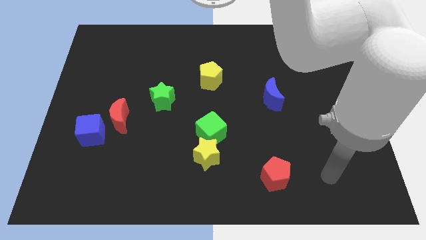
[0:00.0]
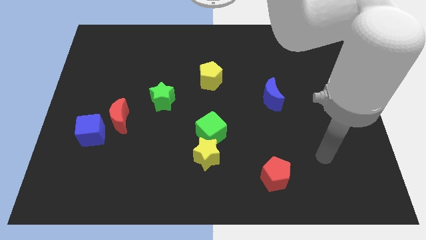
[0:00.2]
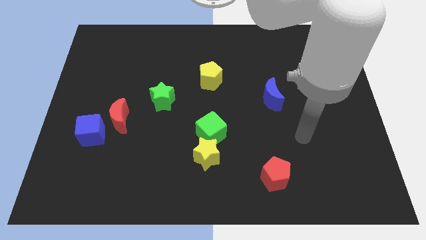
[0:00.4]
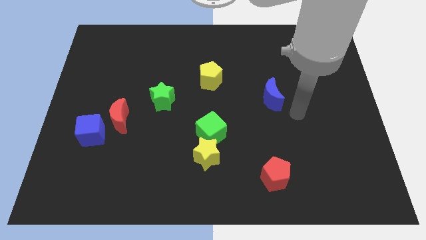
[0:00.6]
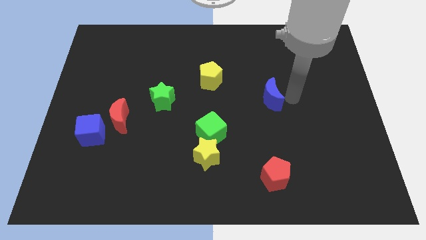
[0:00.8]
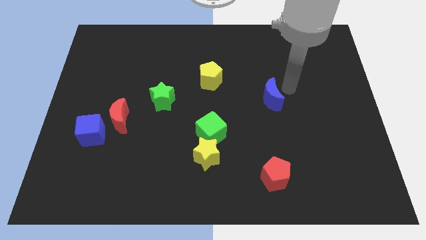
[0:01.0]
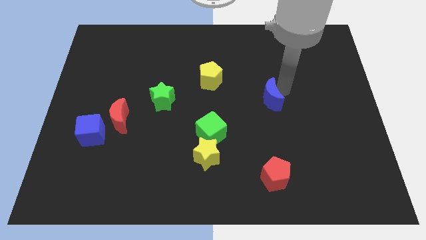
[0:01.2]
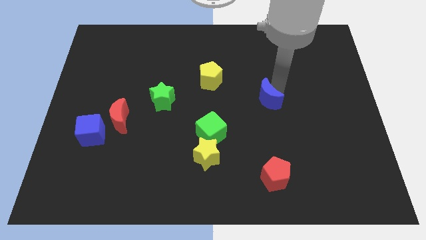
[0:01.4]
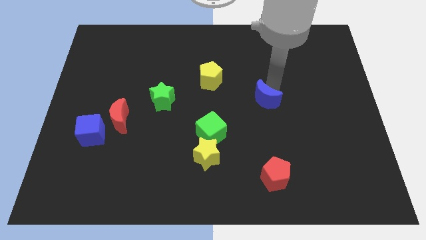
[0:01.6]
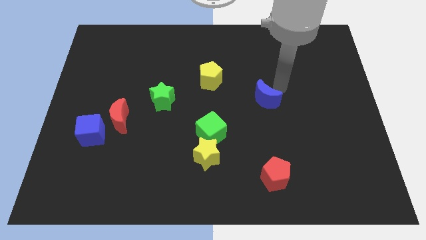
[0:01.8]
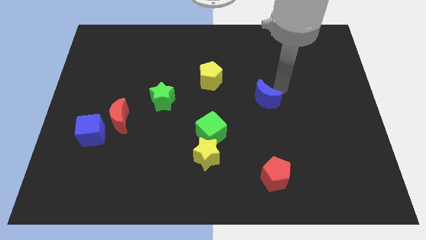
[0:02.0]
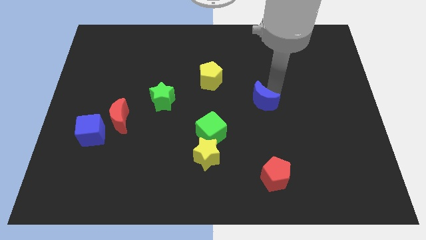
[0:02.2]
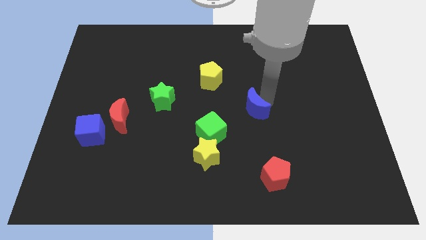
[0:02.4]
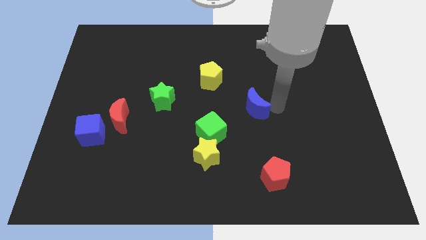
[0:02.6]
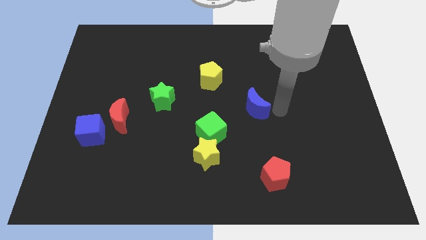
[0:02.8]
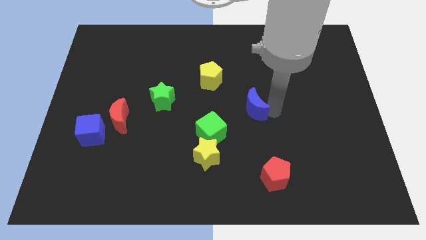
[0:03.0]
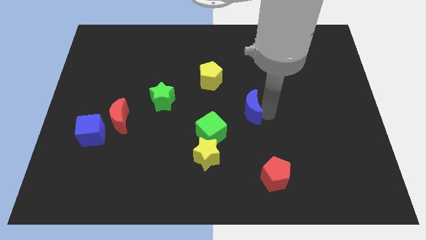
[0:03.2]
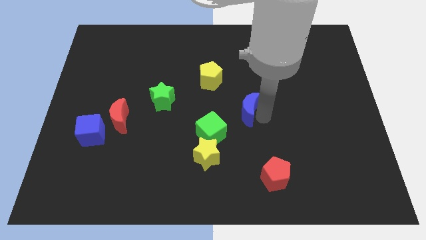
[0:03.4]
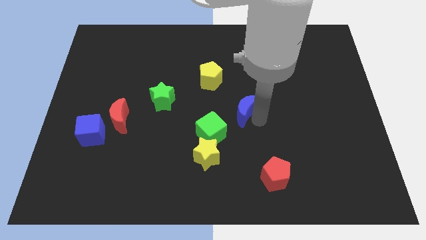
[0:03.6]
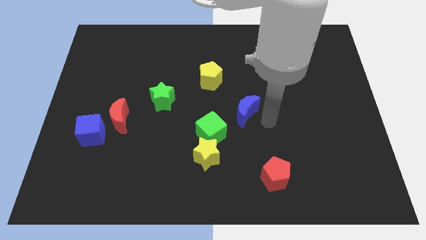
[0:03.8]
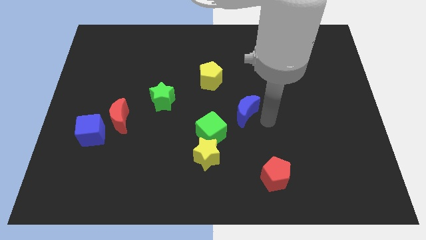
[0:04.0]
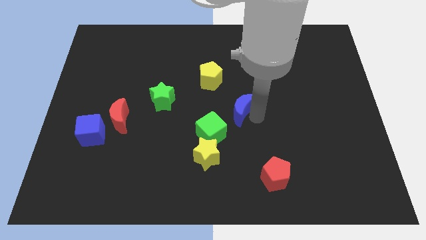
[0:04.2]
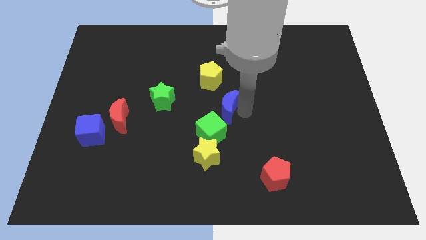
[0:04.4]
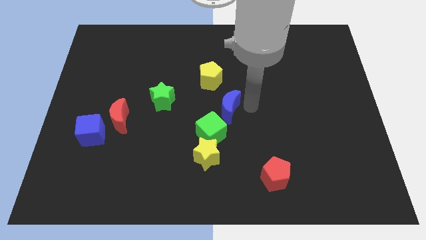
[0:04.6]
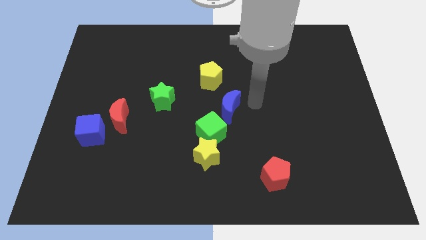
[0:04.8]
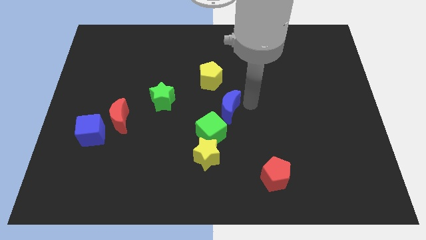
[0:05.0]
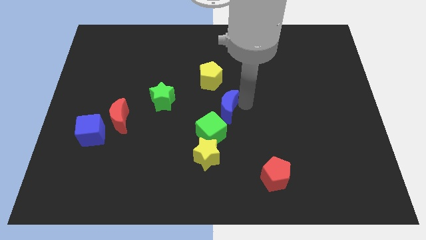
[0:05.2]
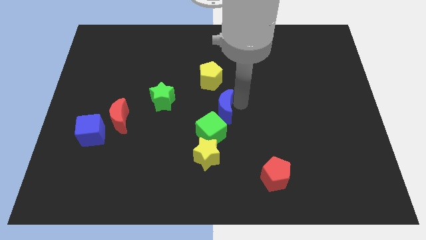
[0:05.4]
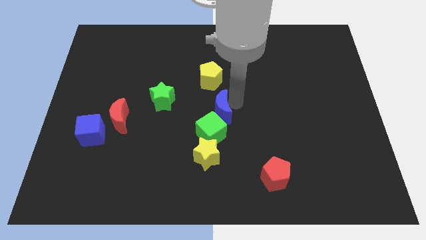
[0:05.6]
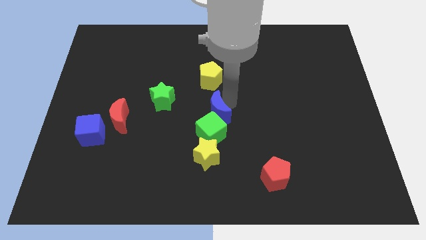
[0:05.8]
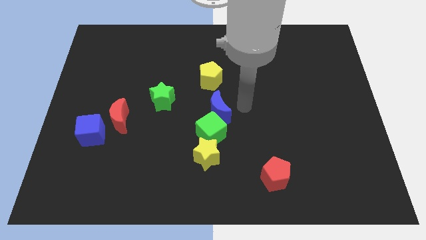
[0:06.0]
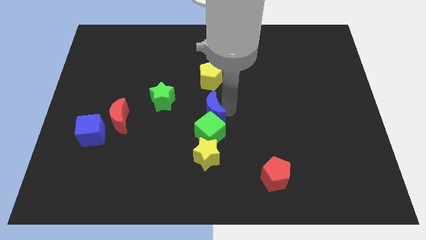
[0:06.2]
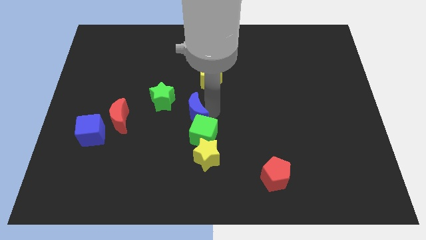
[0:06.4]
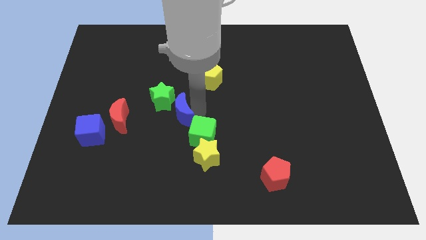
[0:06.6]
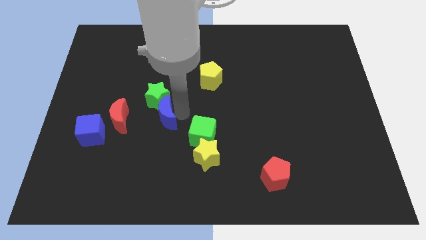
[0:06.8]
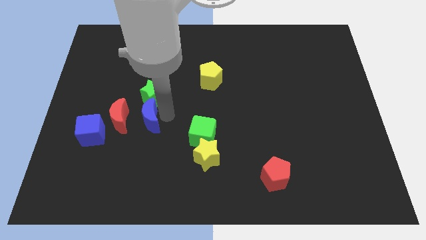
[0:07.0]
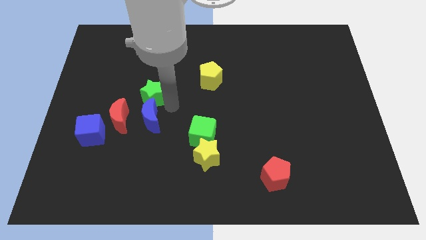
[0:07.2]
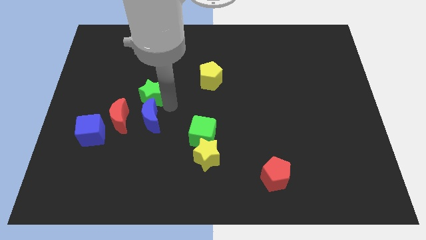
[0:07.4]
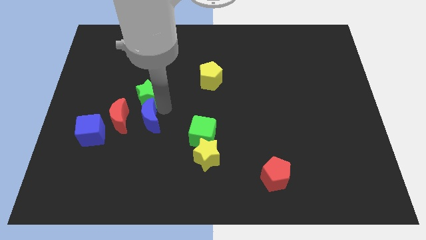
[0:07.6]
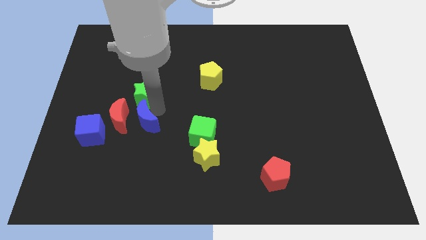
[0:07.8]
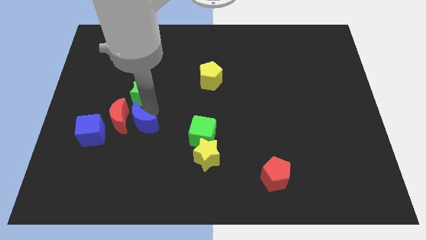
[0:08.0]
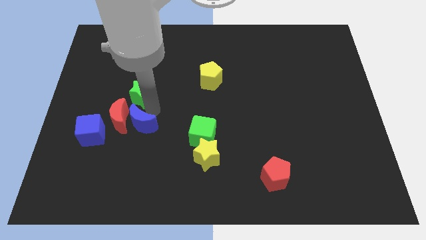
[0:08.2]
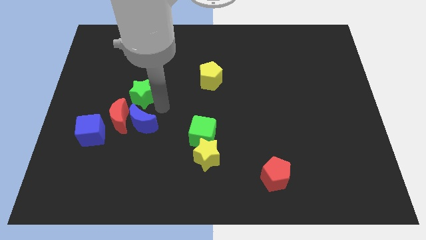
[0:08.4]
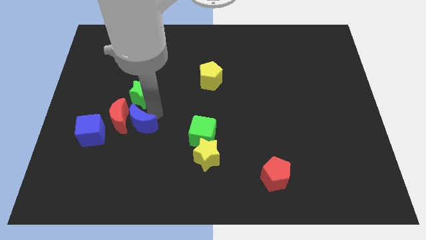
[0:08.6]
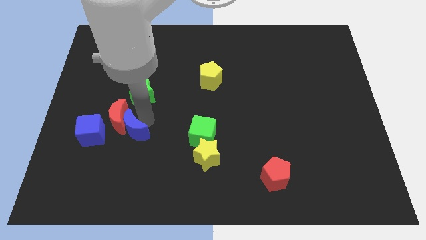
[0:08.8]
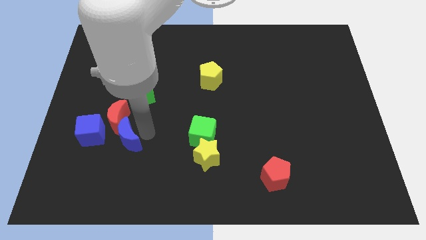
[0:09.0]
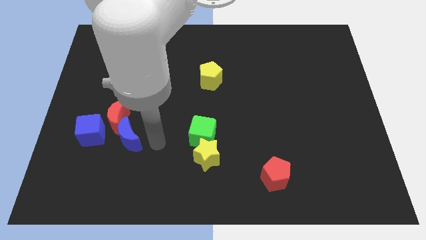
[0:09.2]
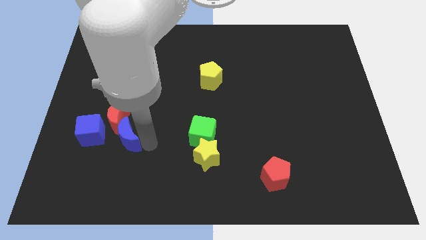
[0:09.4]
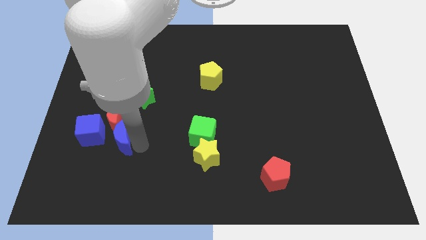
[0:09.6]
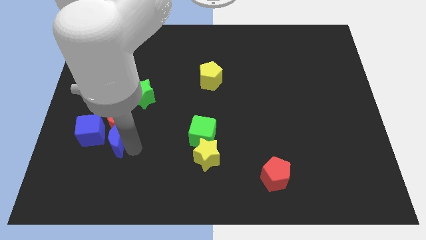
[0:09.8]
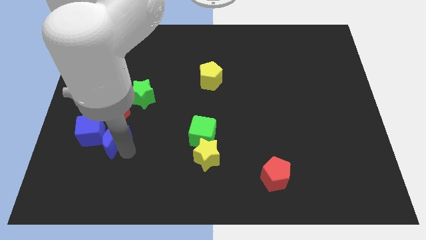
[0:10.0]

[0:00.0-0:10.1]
push the blue moon towards the blue cube

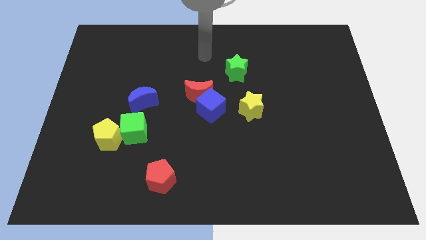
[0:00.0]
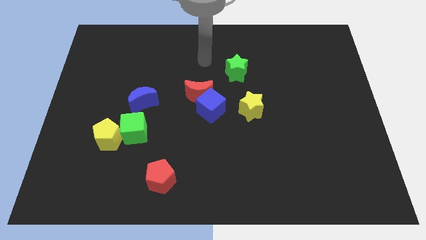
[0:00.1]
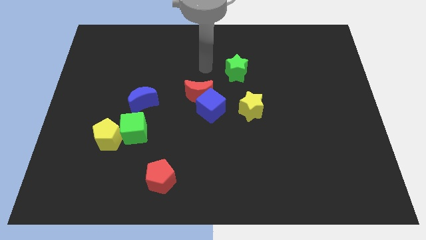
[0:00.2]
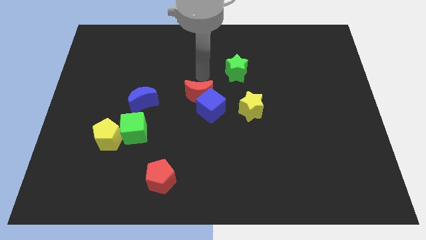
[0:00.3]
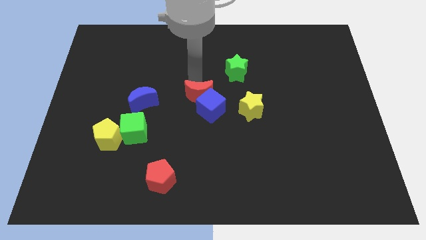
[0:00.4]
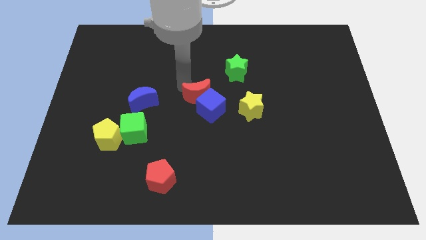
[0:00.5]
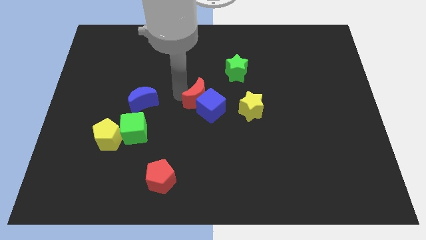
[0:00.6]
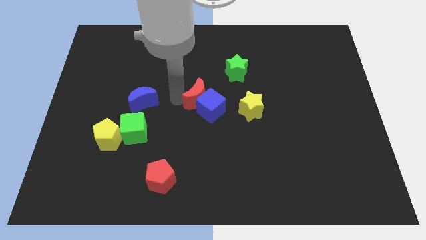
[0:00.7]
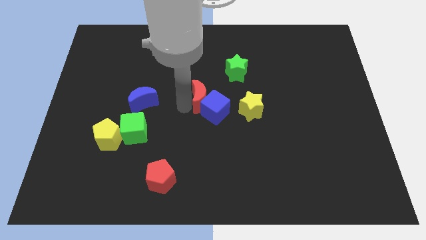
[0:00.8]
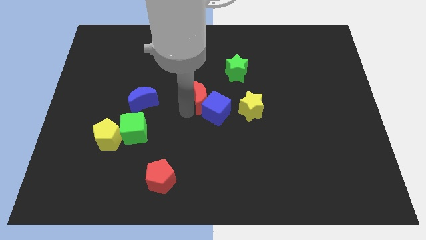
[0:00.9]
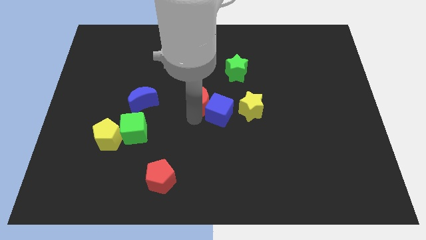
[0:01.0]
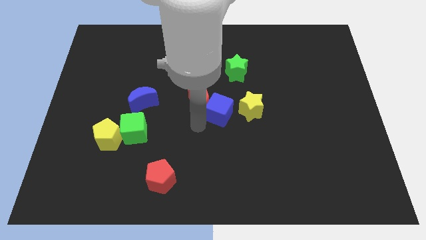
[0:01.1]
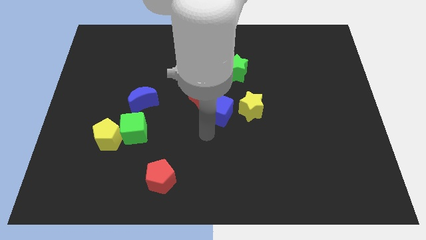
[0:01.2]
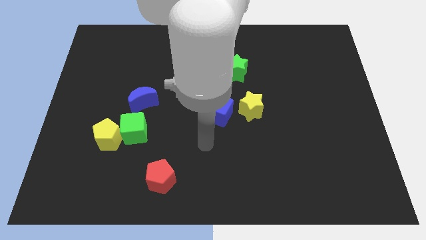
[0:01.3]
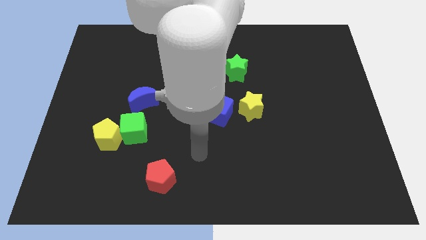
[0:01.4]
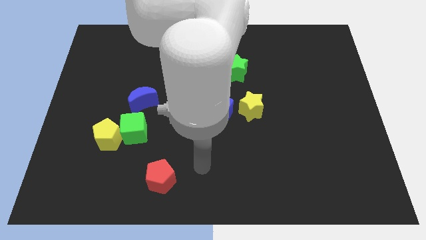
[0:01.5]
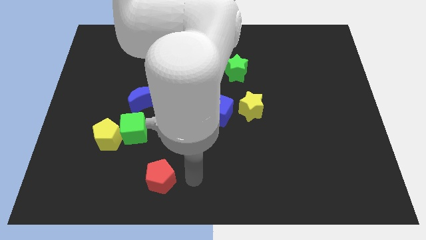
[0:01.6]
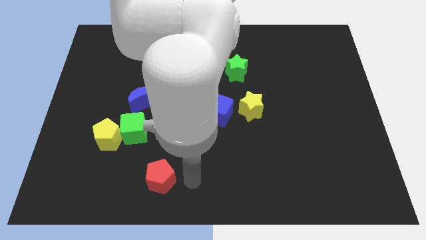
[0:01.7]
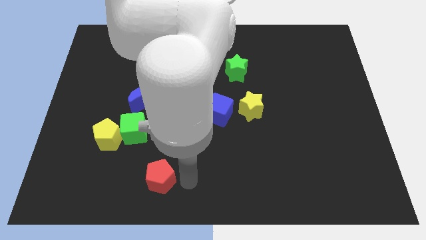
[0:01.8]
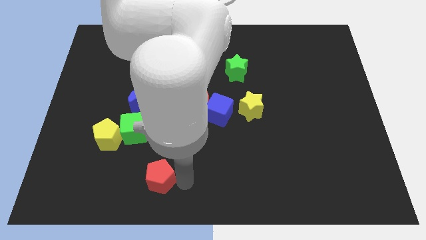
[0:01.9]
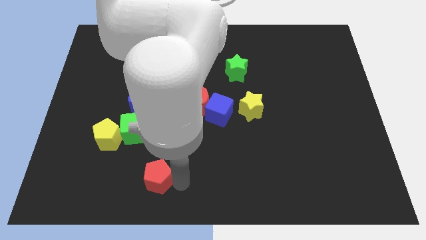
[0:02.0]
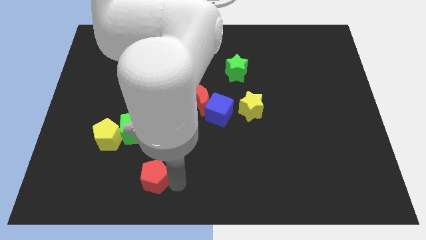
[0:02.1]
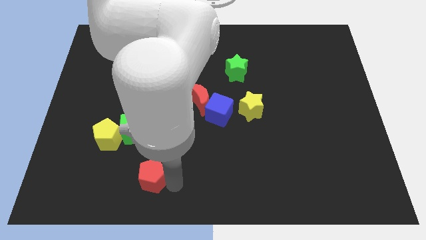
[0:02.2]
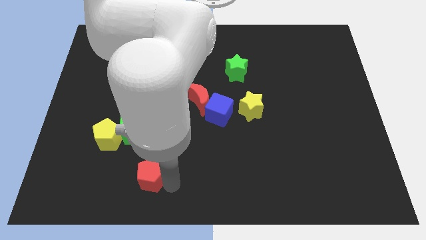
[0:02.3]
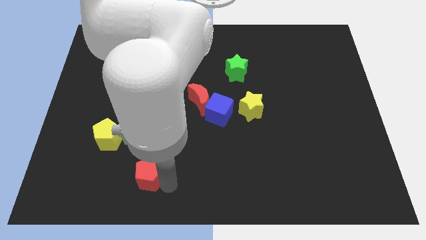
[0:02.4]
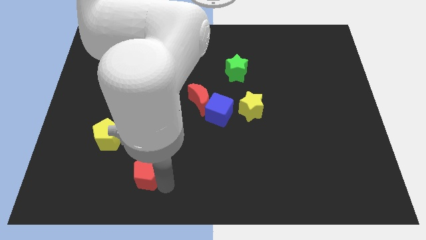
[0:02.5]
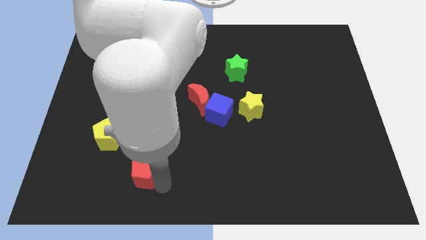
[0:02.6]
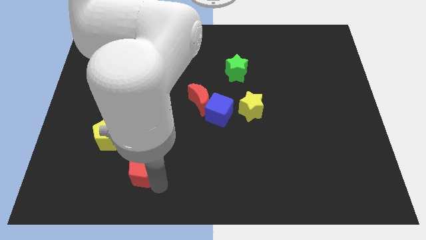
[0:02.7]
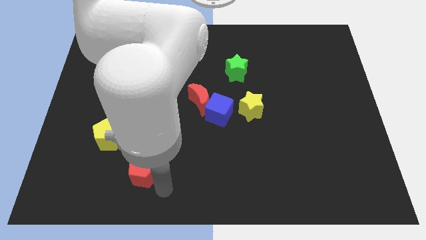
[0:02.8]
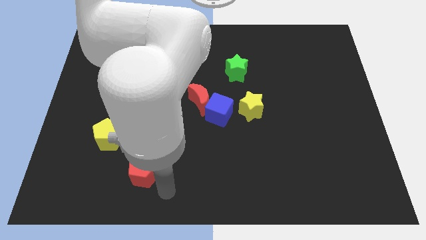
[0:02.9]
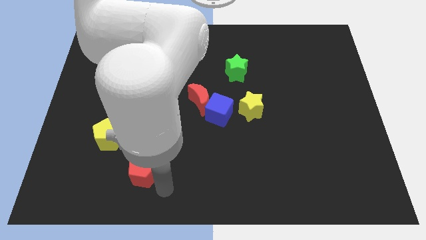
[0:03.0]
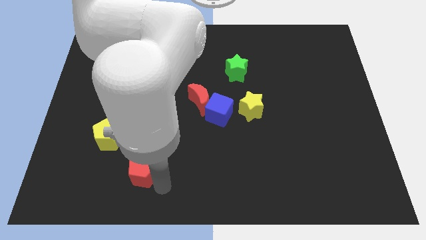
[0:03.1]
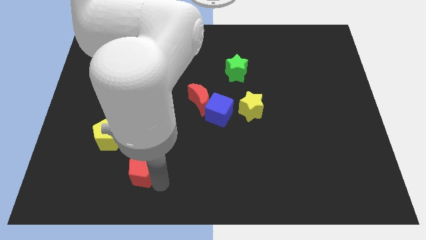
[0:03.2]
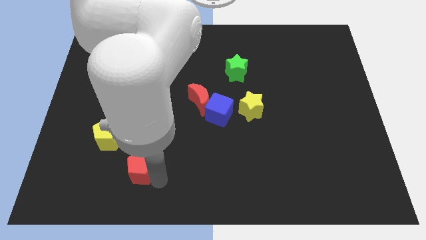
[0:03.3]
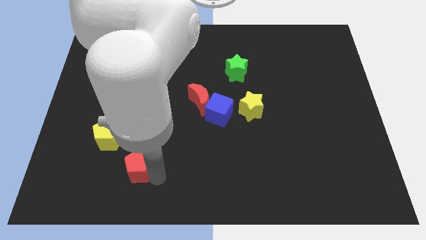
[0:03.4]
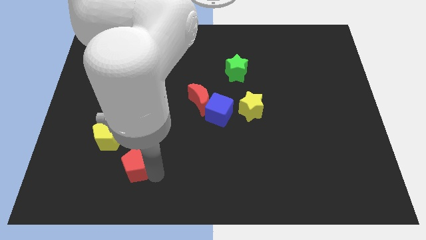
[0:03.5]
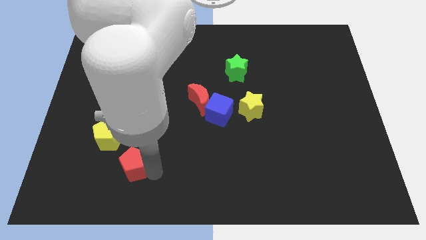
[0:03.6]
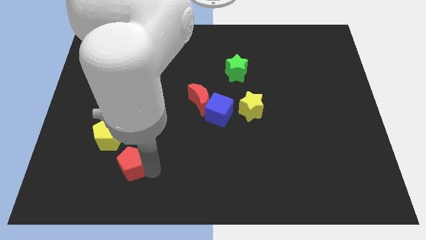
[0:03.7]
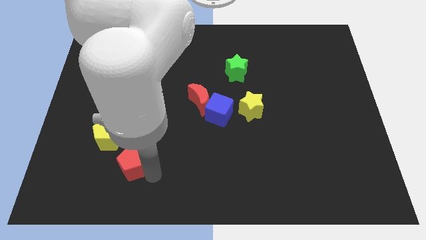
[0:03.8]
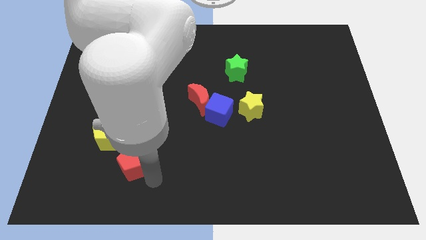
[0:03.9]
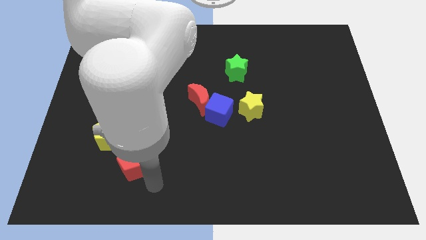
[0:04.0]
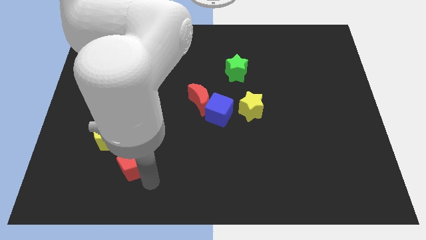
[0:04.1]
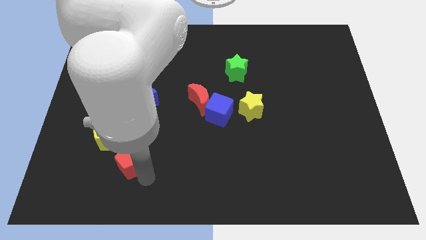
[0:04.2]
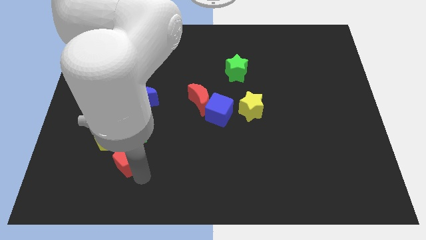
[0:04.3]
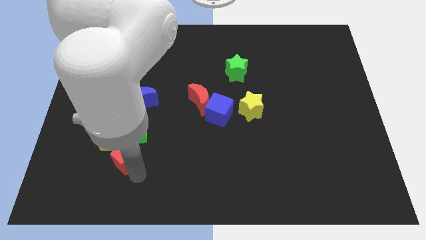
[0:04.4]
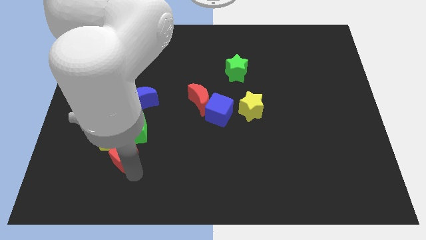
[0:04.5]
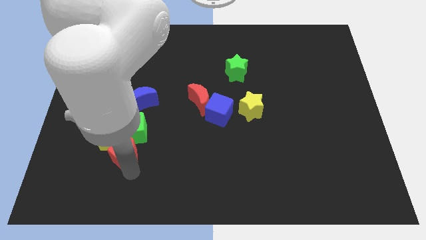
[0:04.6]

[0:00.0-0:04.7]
put the red pentagon to the yellow pentagon
